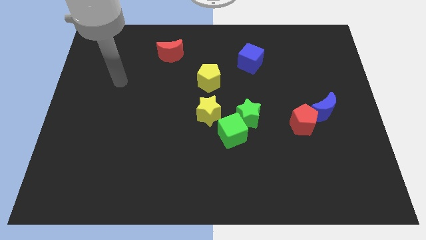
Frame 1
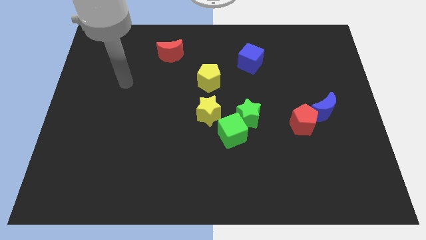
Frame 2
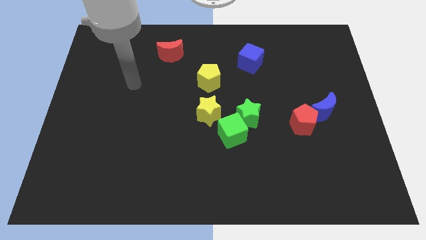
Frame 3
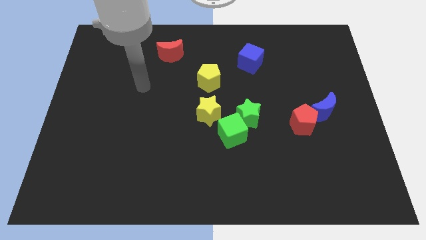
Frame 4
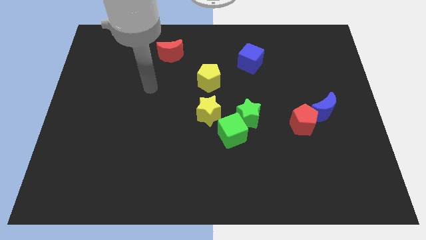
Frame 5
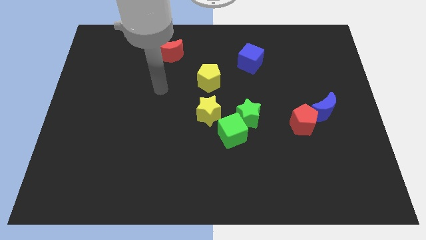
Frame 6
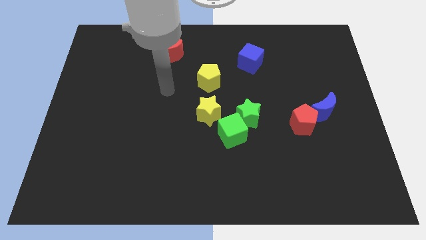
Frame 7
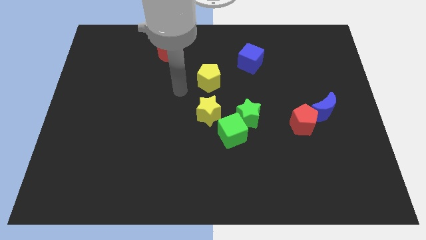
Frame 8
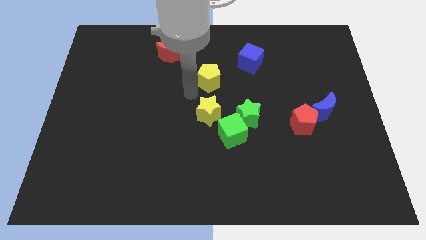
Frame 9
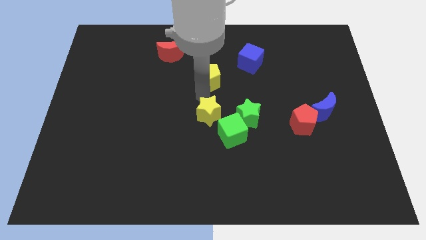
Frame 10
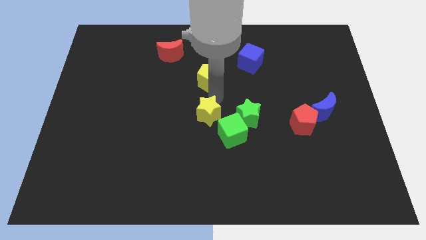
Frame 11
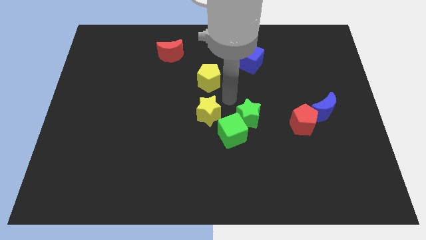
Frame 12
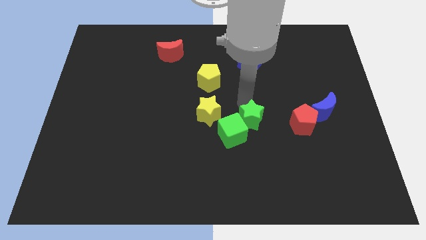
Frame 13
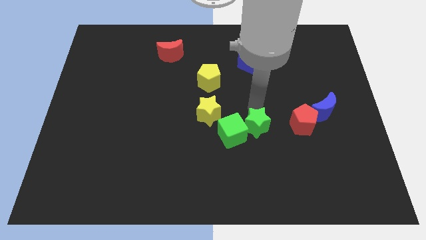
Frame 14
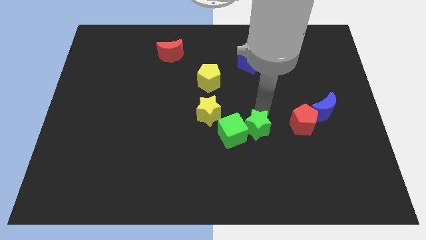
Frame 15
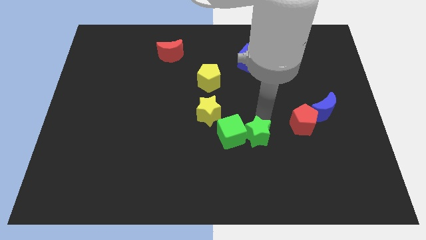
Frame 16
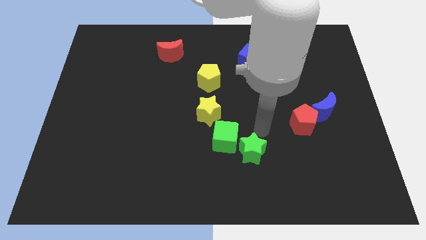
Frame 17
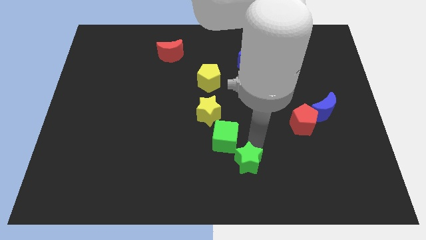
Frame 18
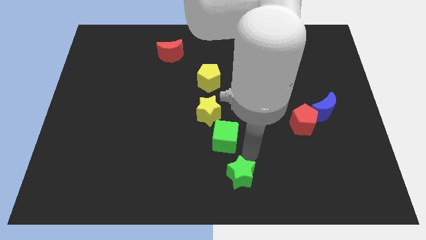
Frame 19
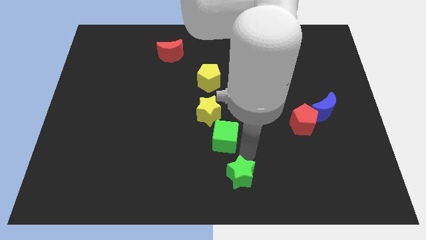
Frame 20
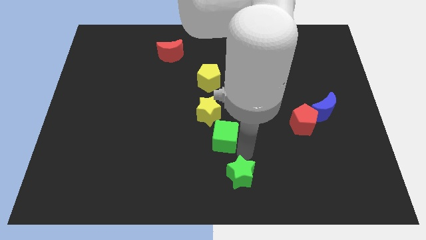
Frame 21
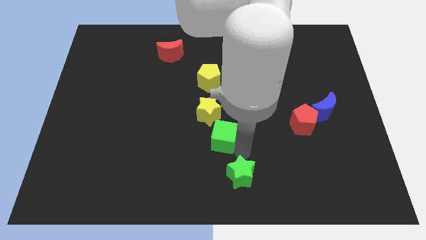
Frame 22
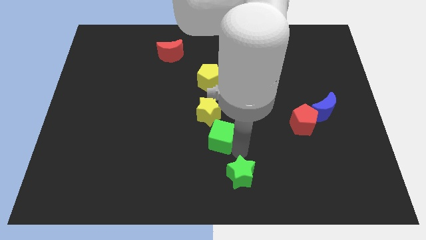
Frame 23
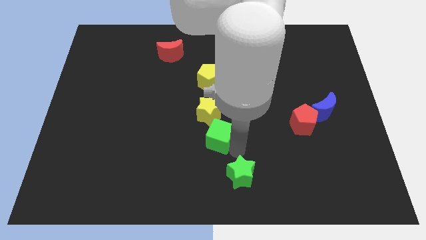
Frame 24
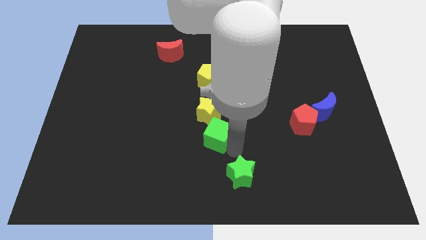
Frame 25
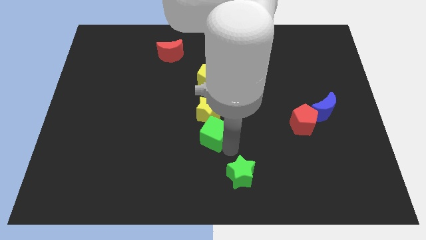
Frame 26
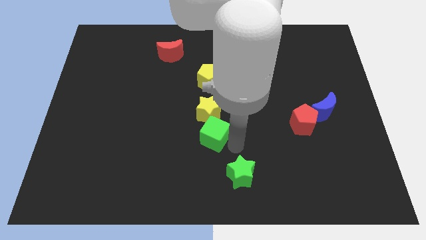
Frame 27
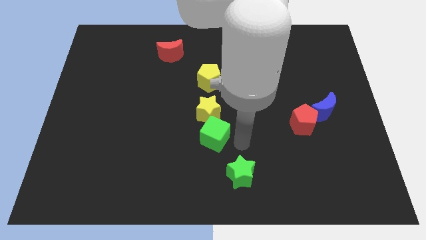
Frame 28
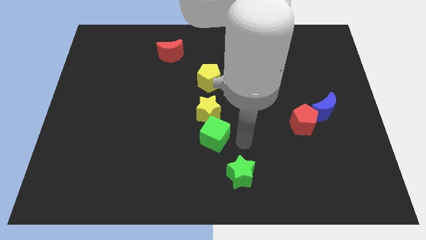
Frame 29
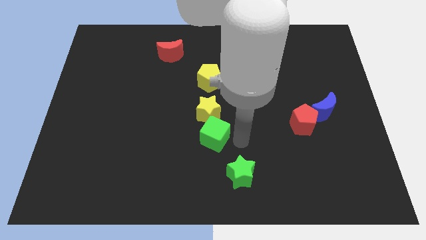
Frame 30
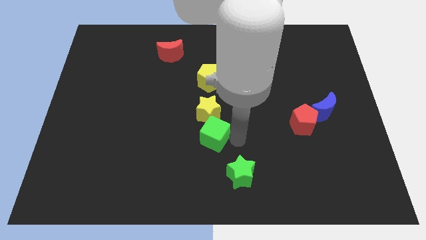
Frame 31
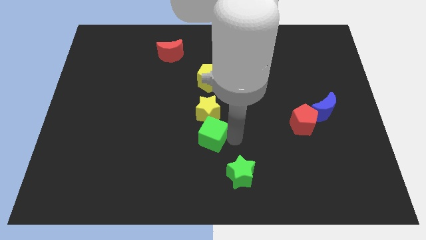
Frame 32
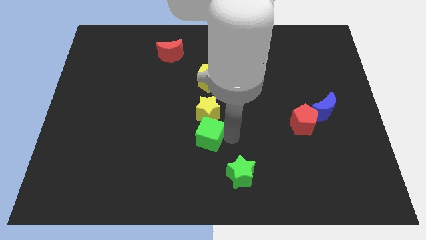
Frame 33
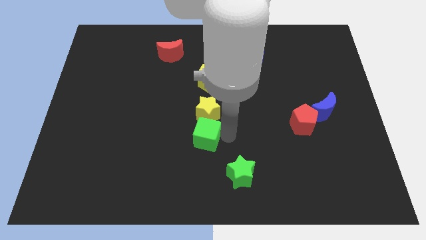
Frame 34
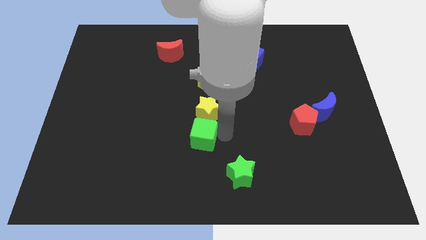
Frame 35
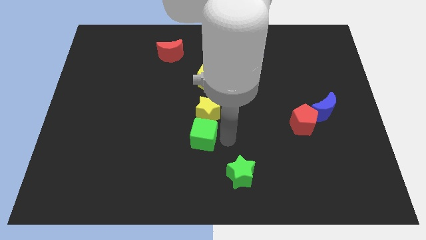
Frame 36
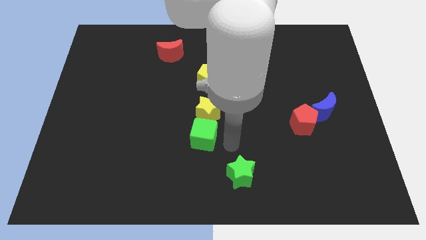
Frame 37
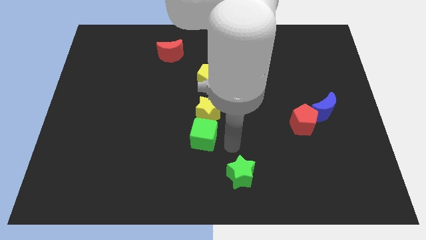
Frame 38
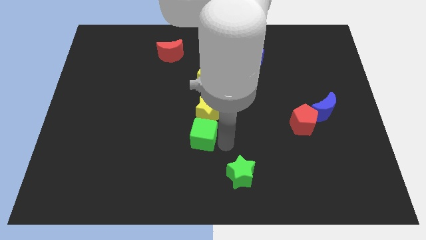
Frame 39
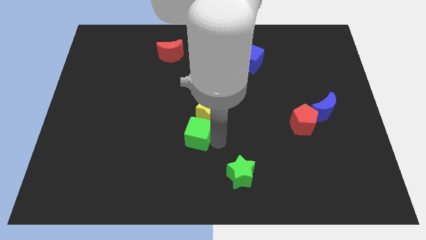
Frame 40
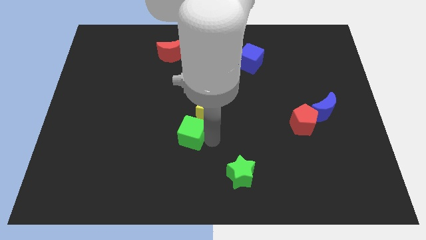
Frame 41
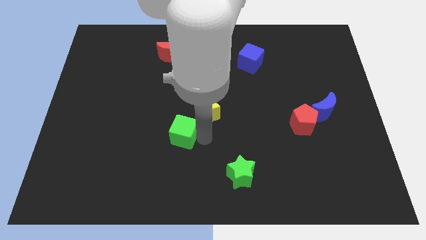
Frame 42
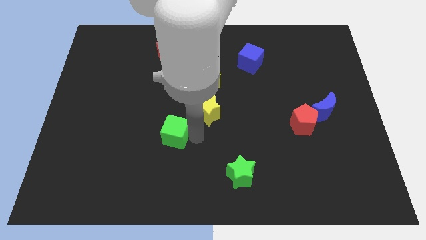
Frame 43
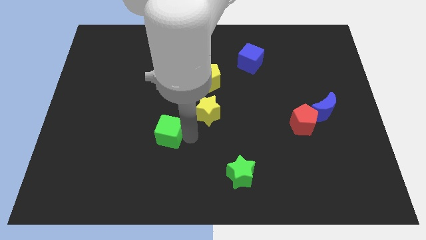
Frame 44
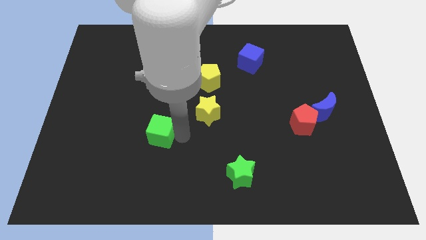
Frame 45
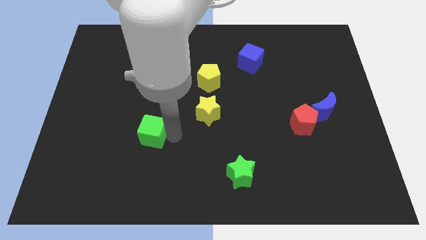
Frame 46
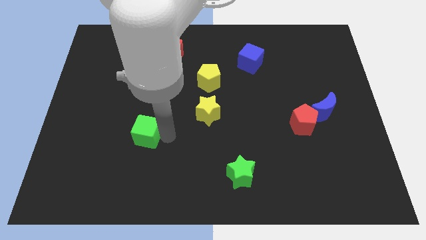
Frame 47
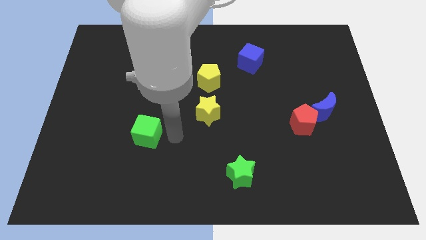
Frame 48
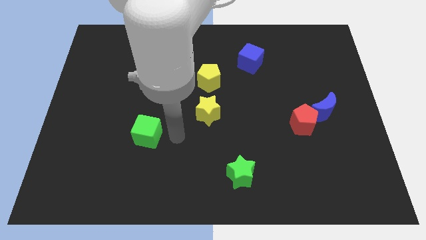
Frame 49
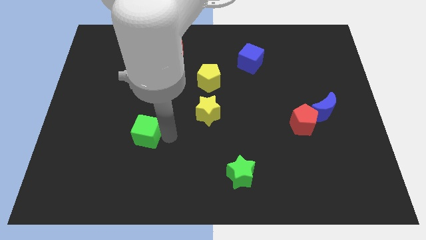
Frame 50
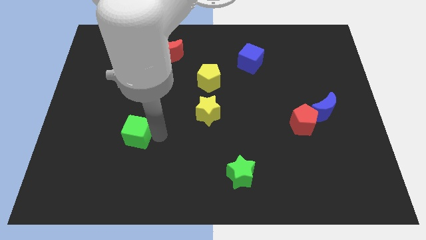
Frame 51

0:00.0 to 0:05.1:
move the green cube left

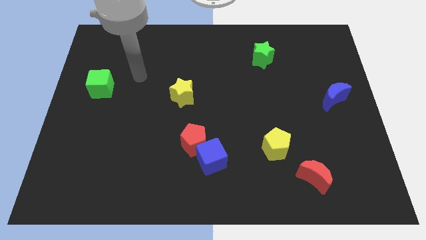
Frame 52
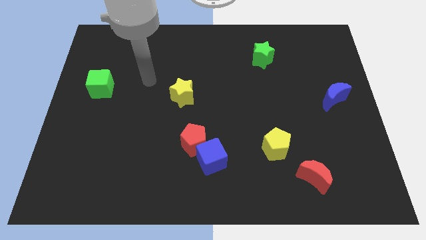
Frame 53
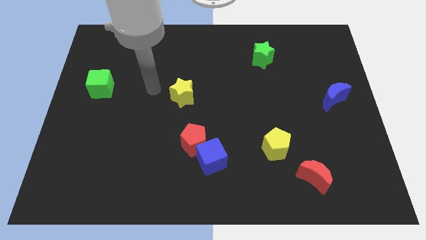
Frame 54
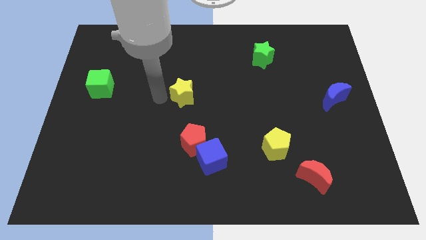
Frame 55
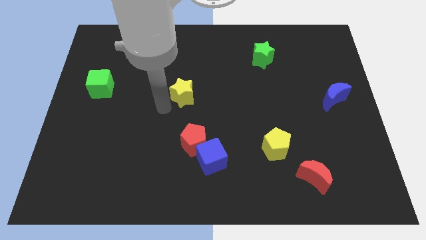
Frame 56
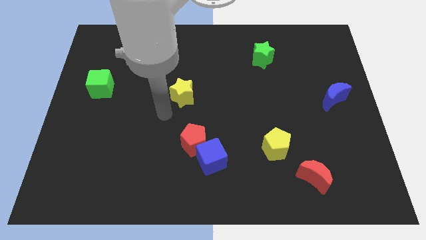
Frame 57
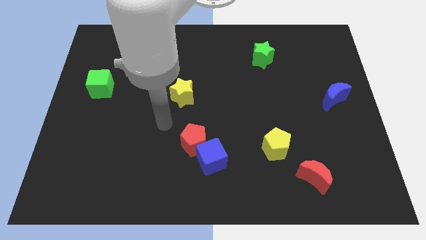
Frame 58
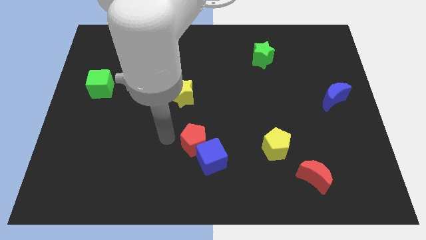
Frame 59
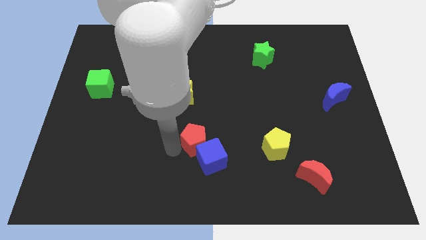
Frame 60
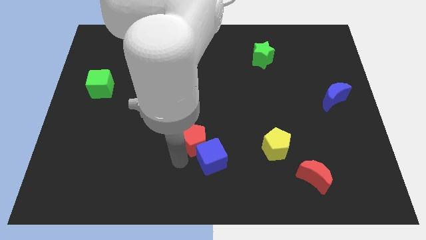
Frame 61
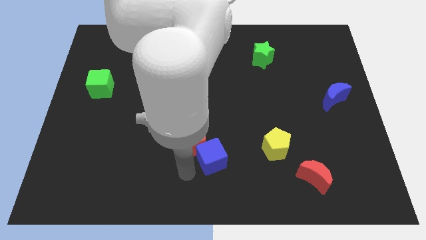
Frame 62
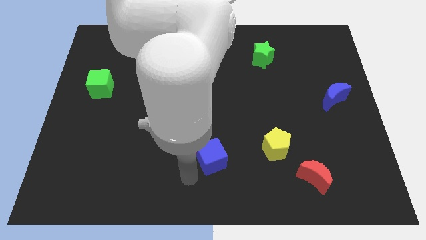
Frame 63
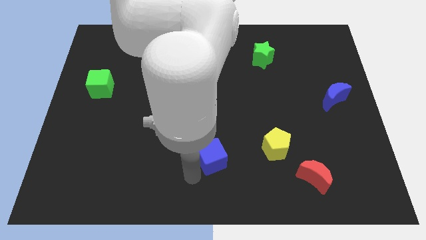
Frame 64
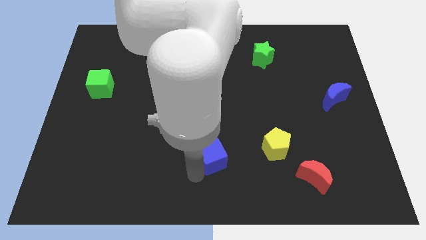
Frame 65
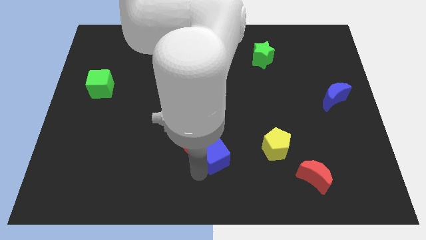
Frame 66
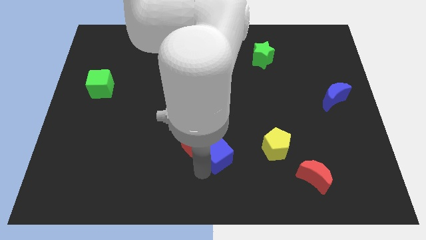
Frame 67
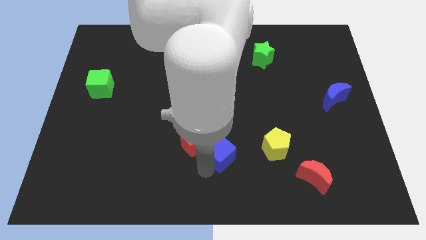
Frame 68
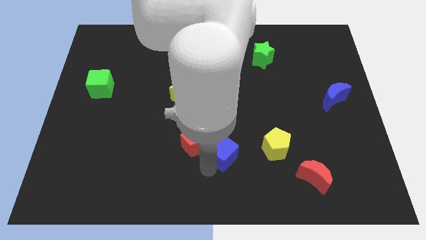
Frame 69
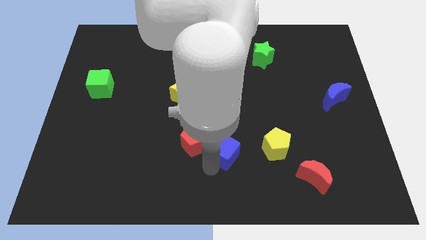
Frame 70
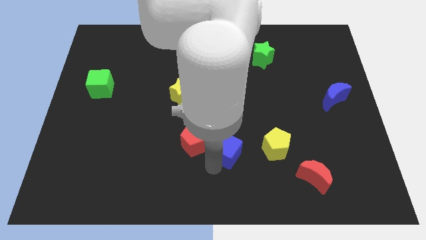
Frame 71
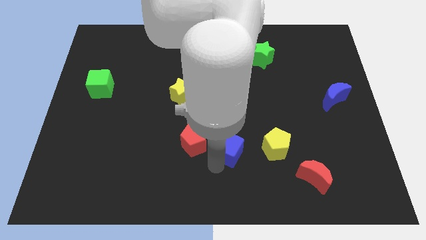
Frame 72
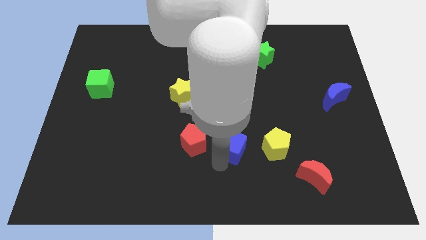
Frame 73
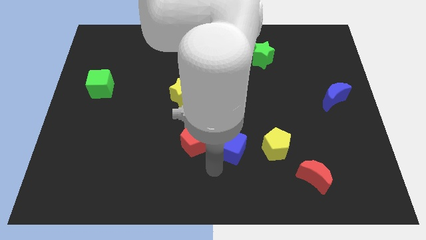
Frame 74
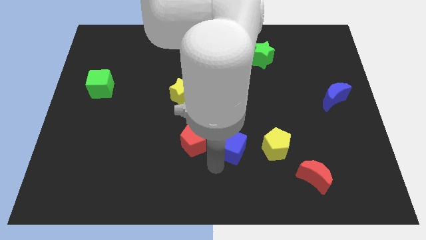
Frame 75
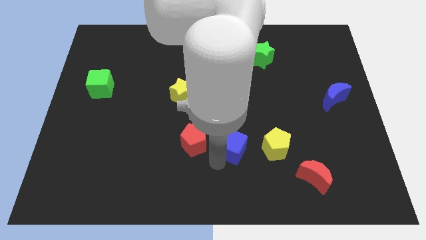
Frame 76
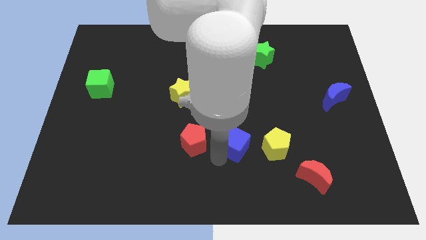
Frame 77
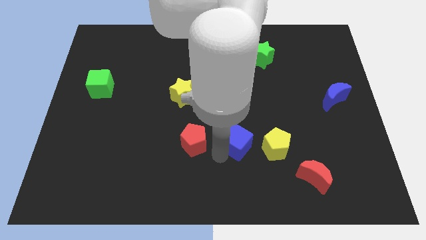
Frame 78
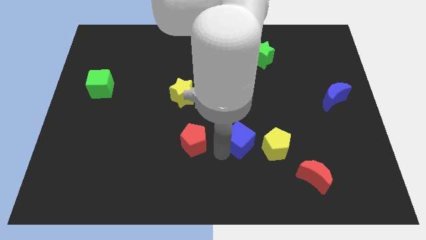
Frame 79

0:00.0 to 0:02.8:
slightly slide the blue cube up and right diagonally

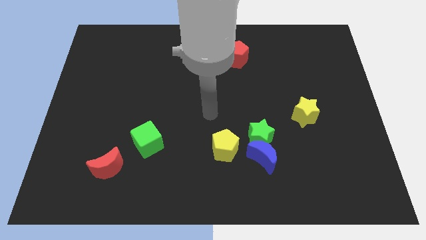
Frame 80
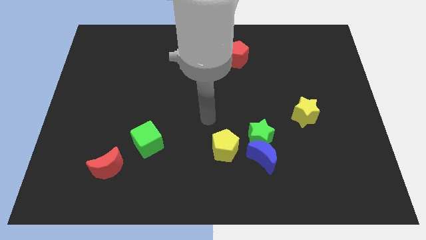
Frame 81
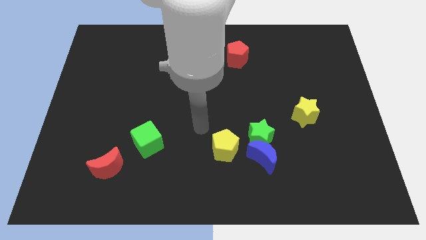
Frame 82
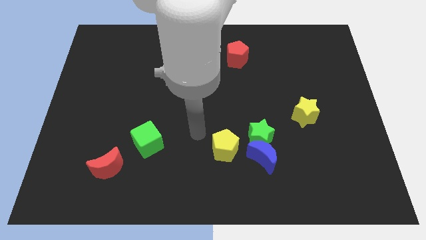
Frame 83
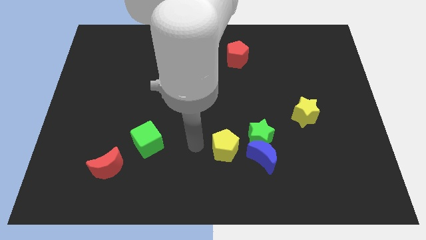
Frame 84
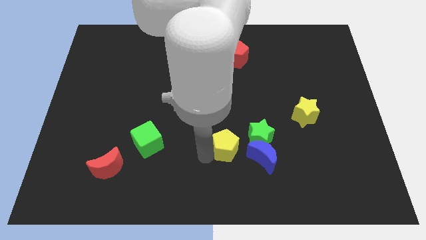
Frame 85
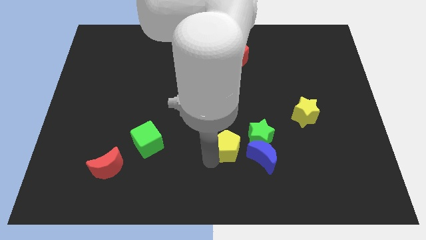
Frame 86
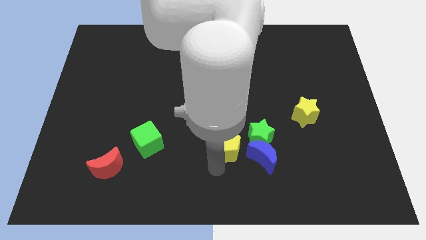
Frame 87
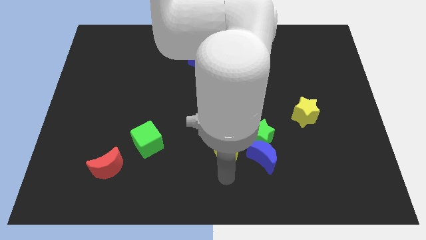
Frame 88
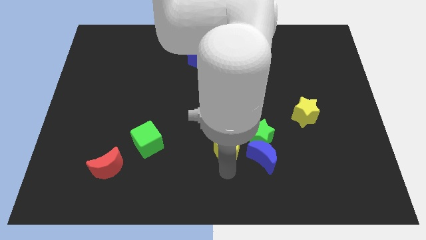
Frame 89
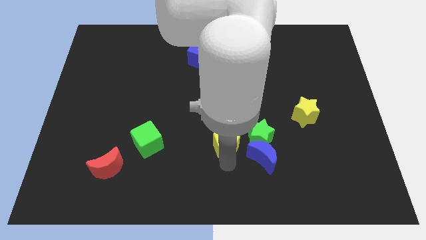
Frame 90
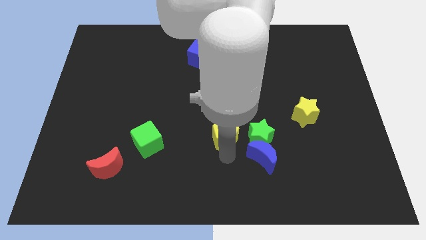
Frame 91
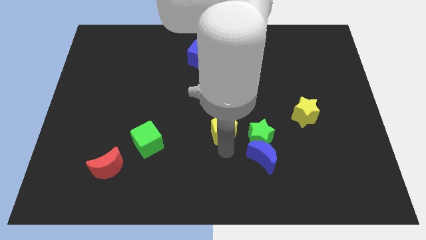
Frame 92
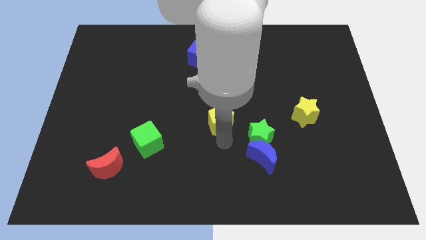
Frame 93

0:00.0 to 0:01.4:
push the yellow pentagon up a little
